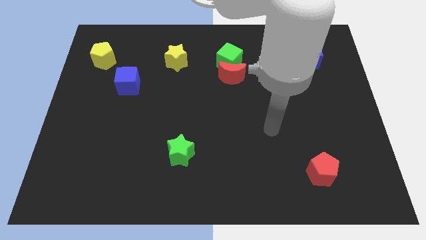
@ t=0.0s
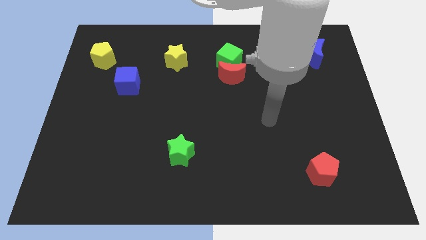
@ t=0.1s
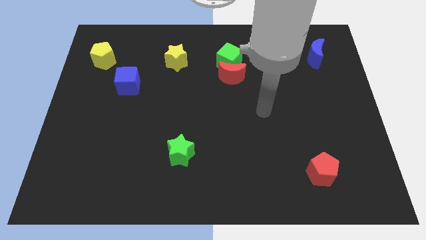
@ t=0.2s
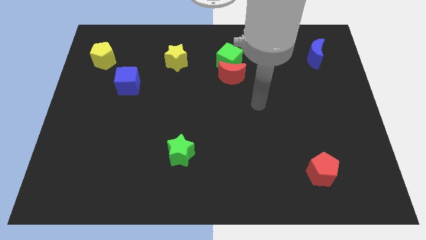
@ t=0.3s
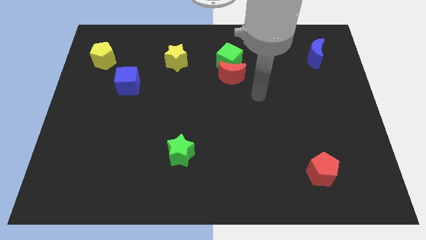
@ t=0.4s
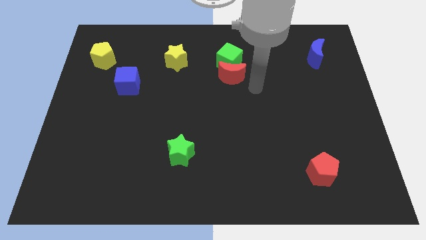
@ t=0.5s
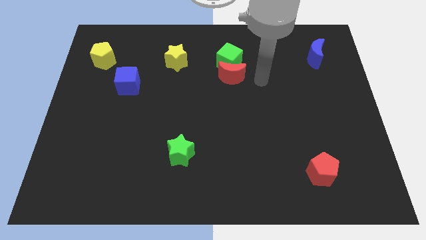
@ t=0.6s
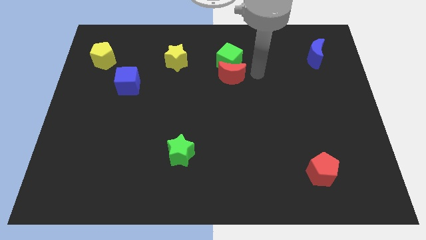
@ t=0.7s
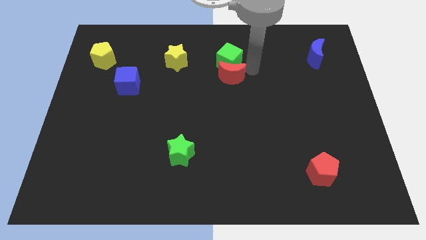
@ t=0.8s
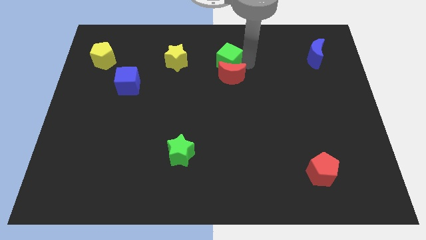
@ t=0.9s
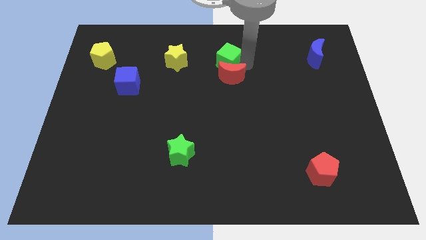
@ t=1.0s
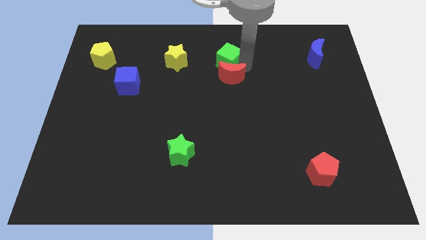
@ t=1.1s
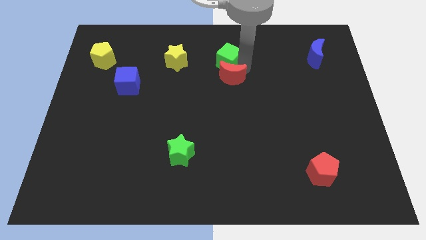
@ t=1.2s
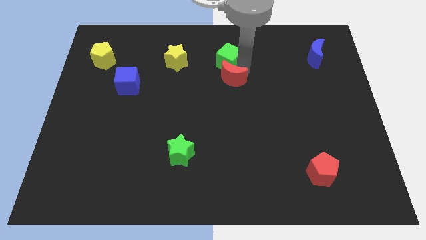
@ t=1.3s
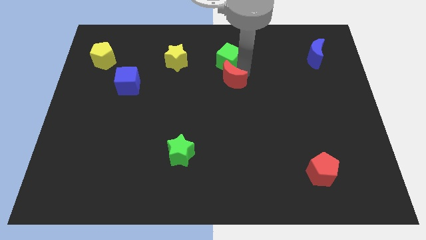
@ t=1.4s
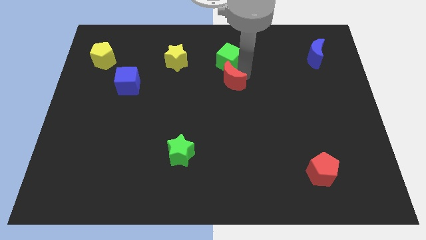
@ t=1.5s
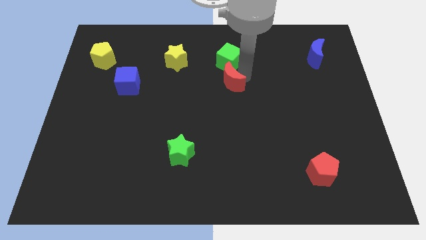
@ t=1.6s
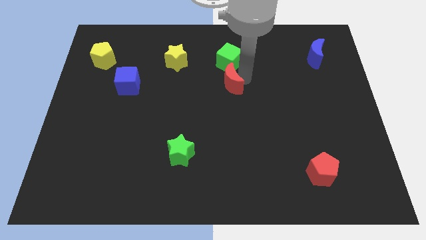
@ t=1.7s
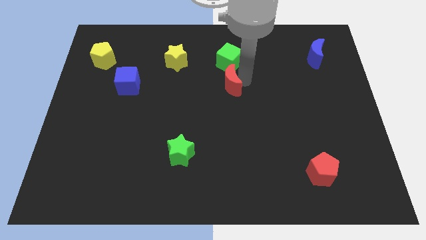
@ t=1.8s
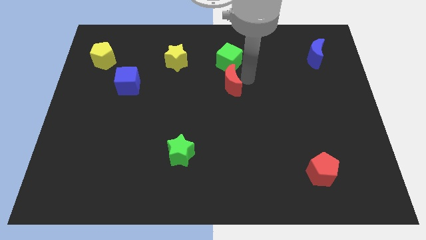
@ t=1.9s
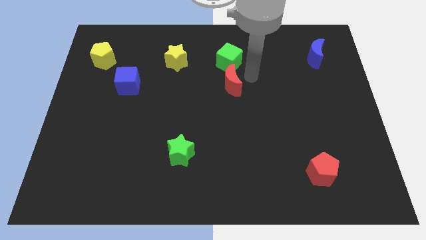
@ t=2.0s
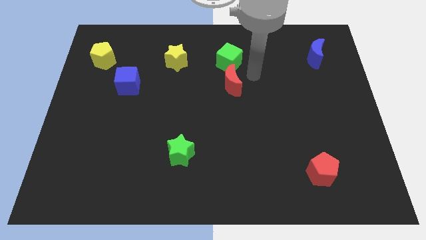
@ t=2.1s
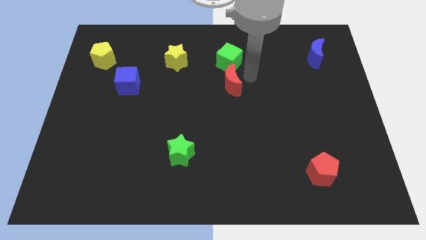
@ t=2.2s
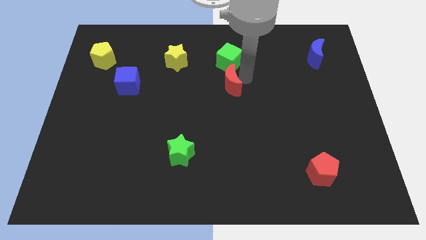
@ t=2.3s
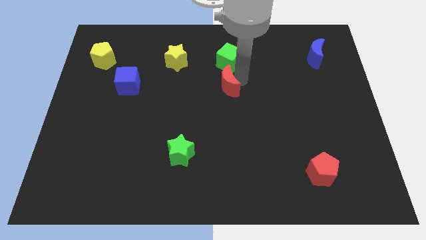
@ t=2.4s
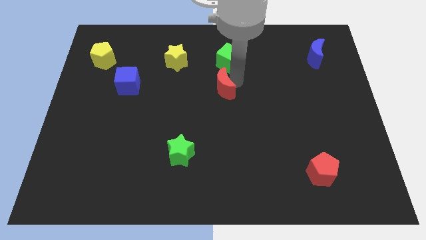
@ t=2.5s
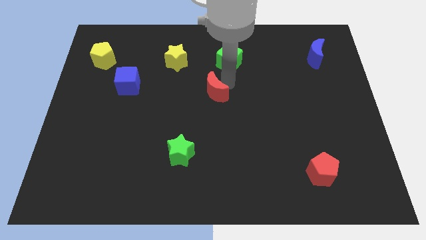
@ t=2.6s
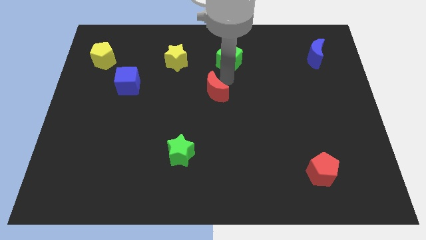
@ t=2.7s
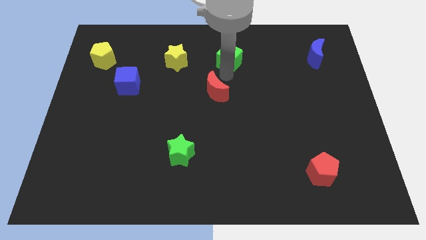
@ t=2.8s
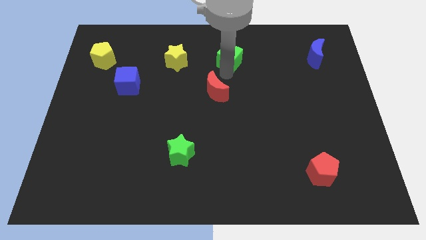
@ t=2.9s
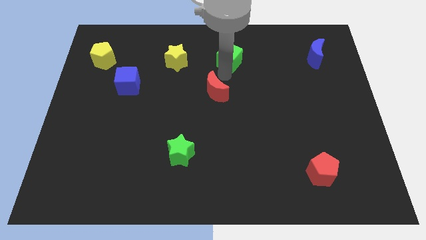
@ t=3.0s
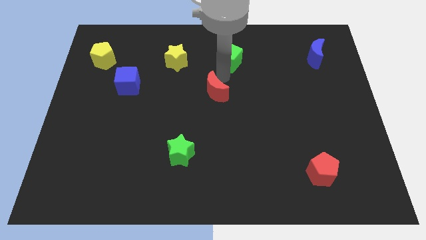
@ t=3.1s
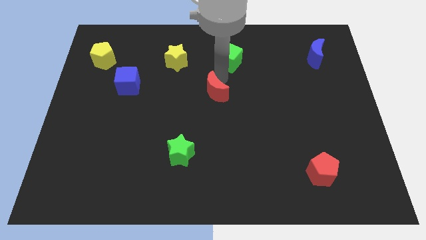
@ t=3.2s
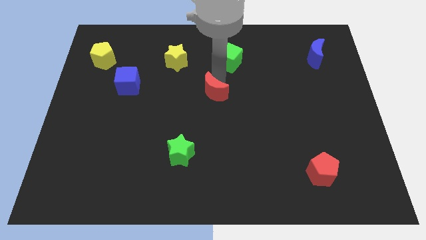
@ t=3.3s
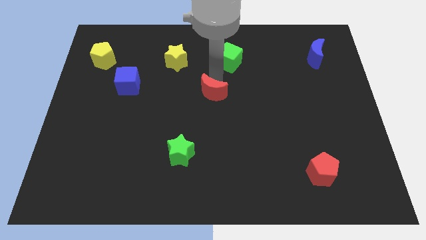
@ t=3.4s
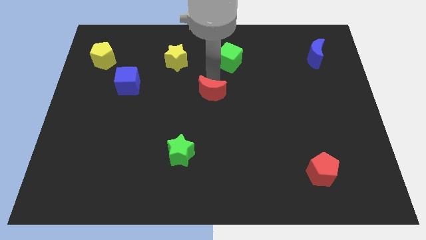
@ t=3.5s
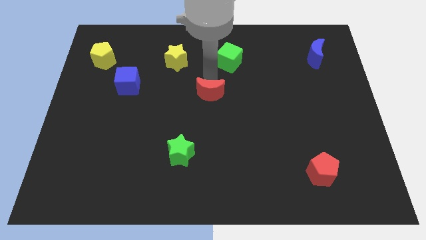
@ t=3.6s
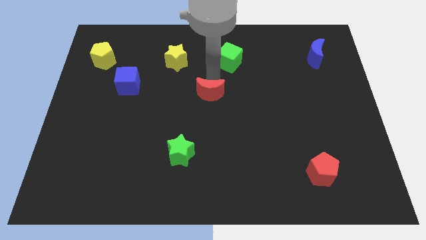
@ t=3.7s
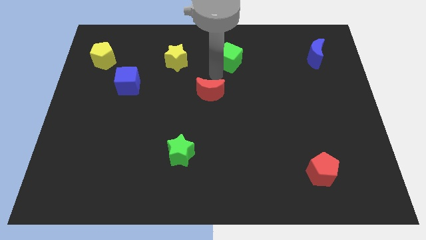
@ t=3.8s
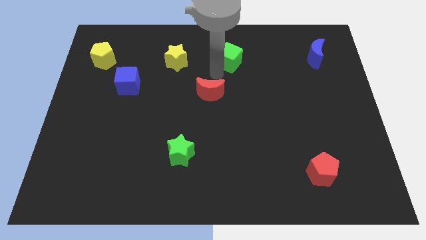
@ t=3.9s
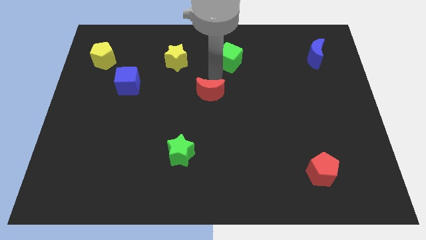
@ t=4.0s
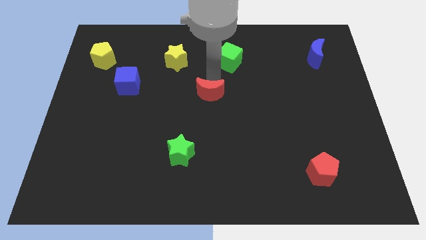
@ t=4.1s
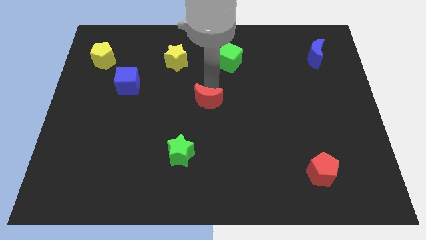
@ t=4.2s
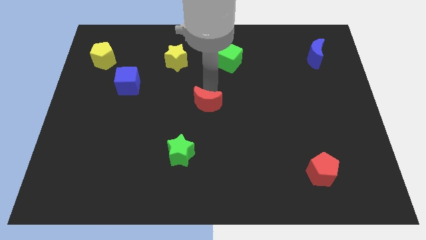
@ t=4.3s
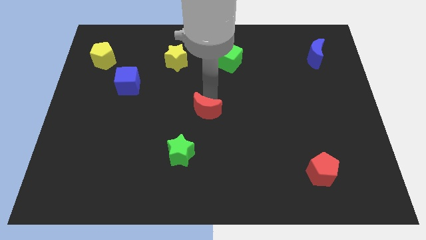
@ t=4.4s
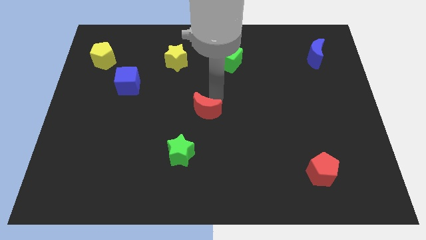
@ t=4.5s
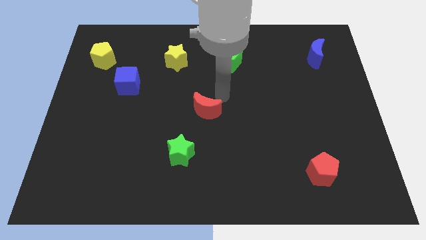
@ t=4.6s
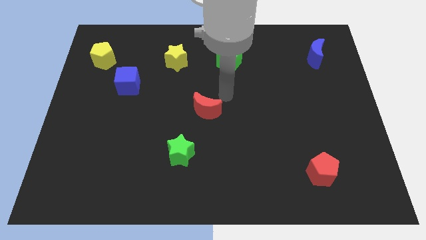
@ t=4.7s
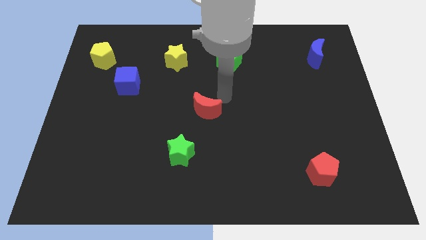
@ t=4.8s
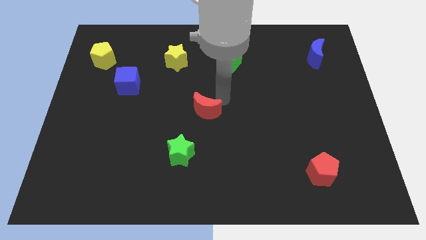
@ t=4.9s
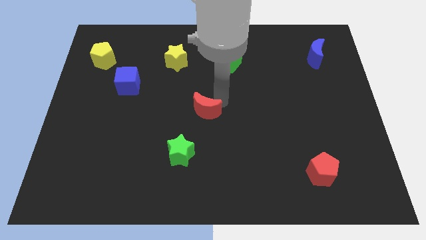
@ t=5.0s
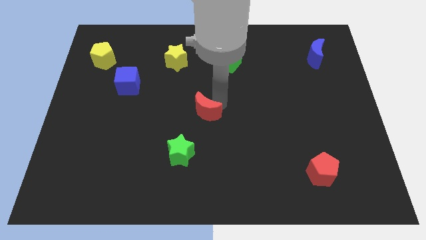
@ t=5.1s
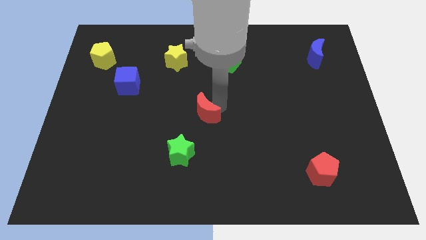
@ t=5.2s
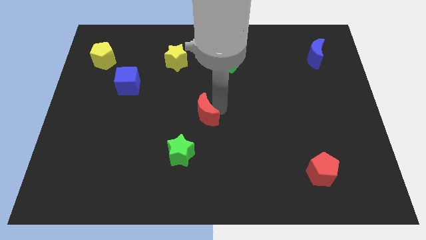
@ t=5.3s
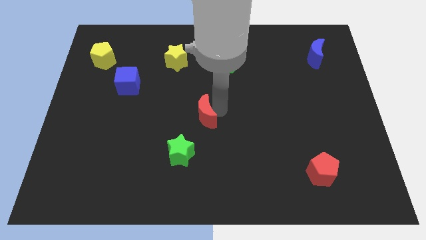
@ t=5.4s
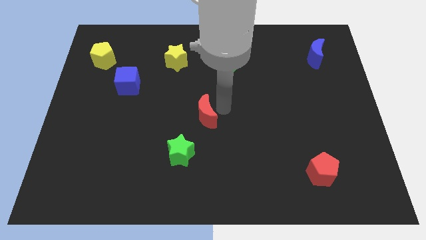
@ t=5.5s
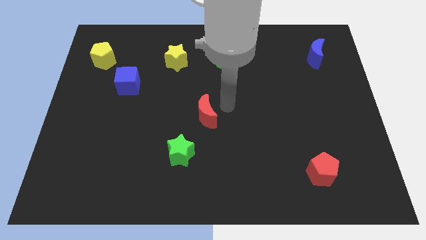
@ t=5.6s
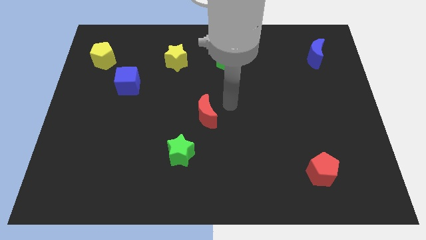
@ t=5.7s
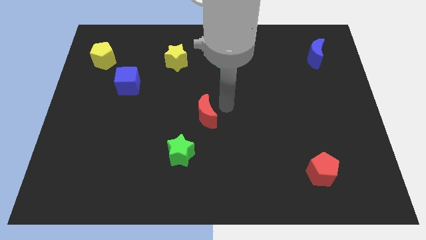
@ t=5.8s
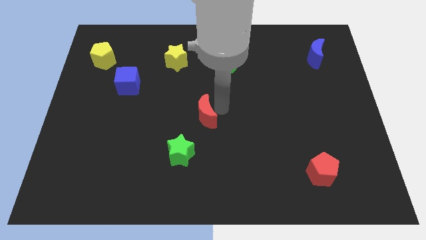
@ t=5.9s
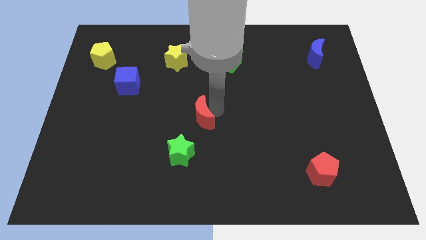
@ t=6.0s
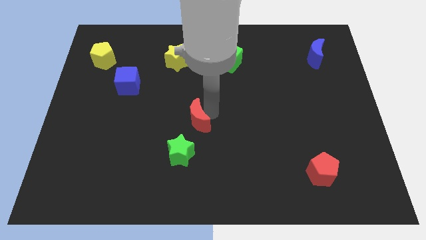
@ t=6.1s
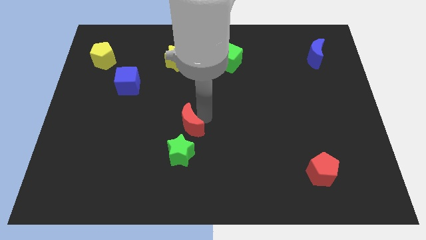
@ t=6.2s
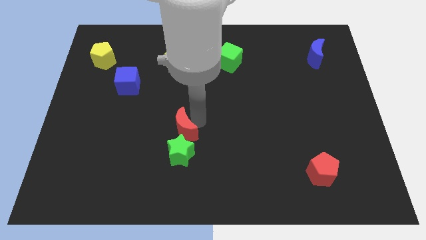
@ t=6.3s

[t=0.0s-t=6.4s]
push the red moon to the top left side of the green star
